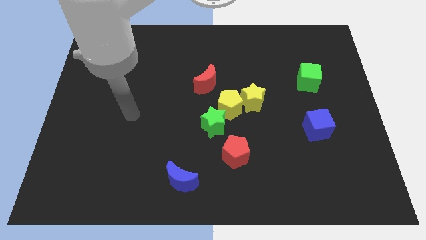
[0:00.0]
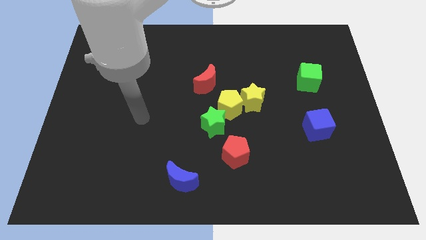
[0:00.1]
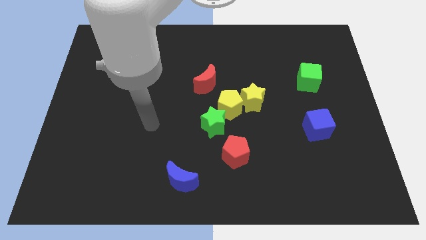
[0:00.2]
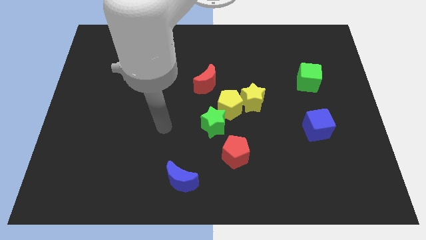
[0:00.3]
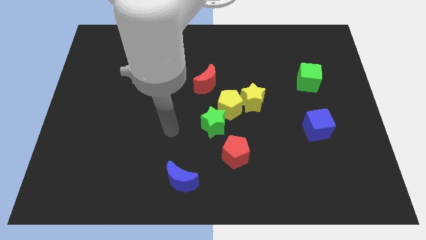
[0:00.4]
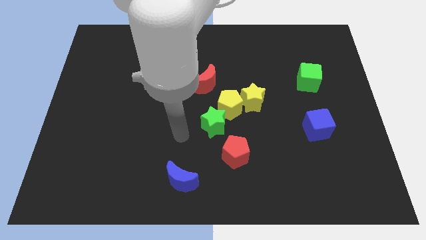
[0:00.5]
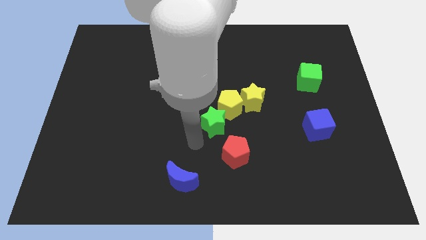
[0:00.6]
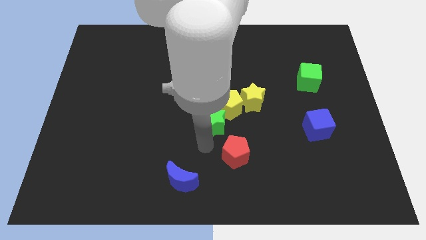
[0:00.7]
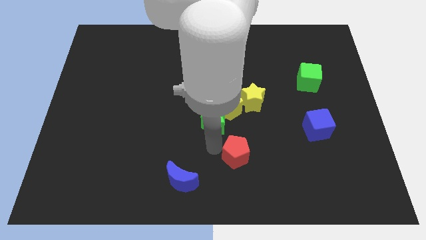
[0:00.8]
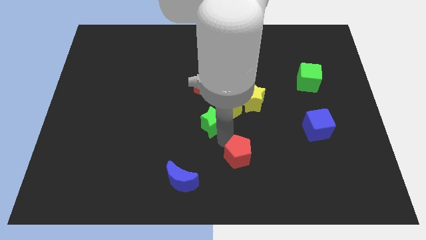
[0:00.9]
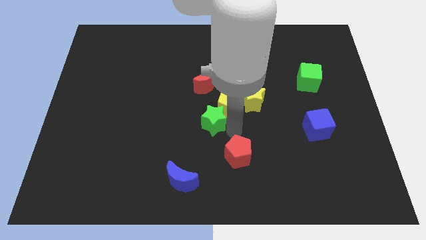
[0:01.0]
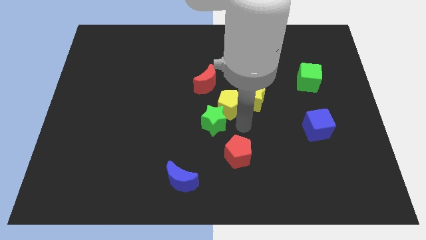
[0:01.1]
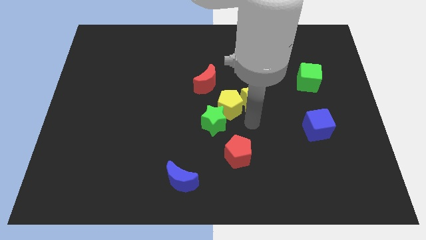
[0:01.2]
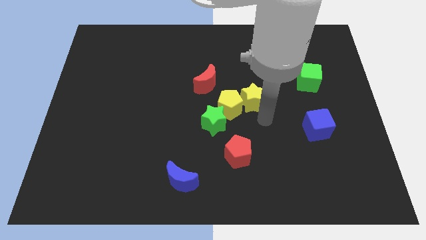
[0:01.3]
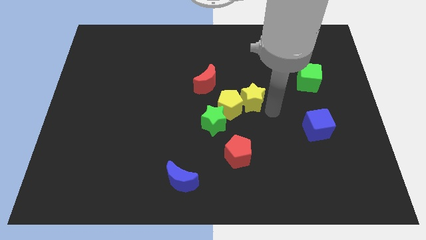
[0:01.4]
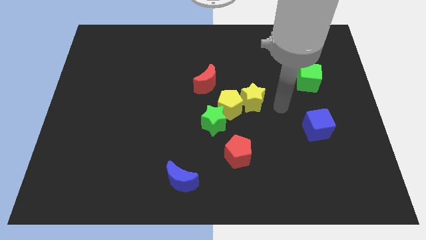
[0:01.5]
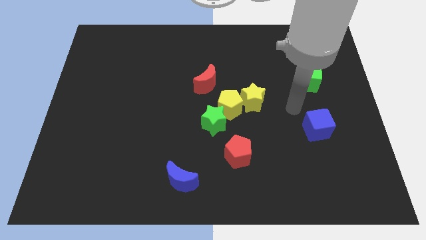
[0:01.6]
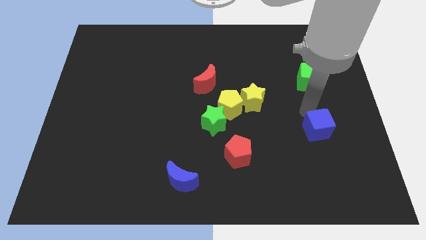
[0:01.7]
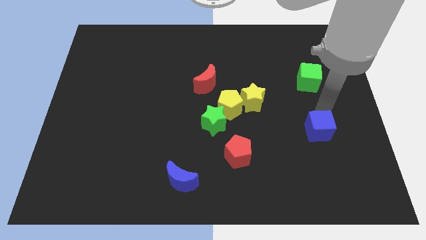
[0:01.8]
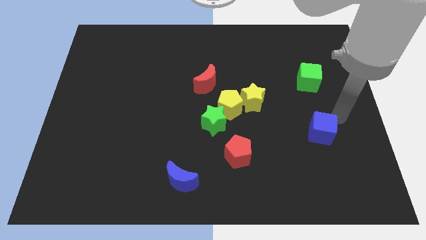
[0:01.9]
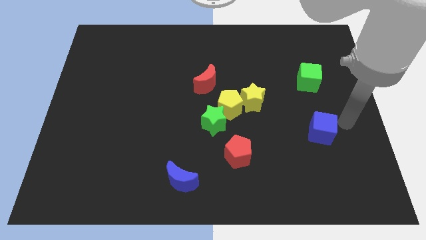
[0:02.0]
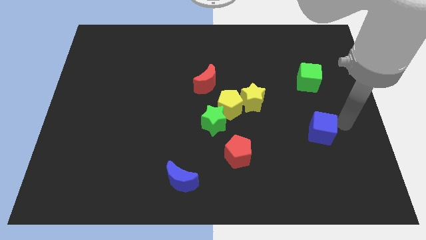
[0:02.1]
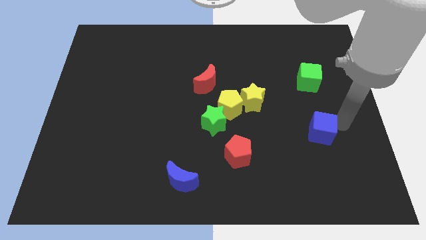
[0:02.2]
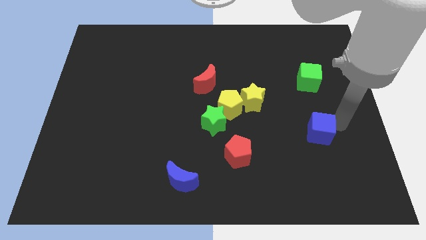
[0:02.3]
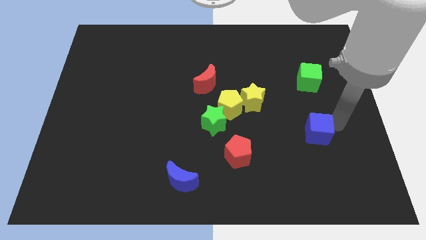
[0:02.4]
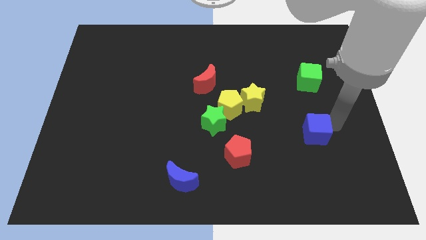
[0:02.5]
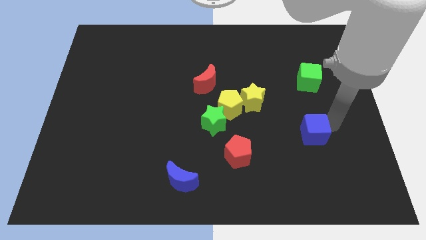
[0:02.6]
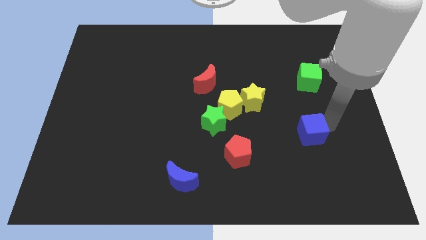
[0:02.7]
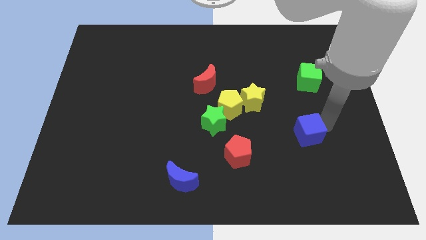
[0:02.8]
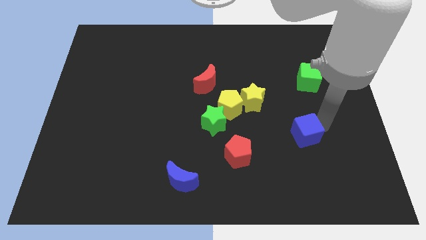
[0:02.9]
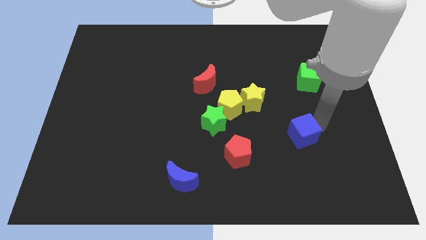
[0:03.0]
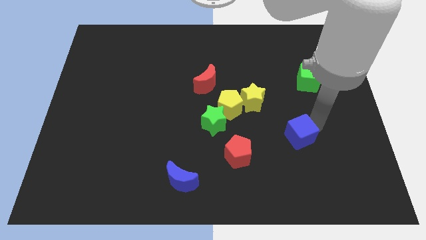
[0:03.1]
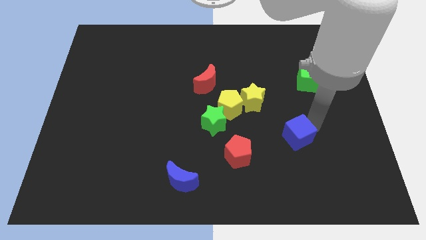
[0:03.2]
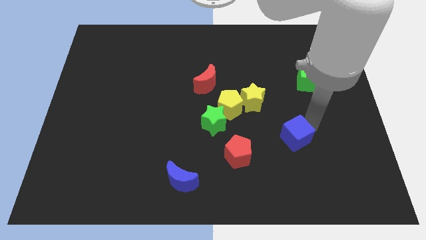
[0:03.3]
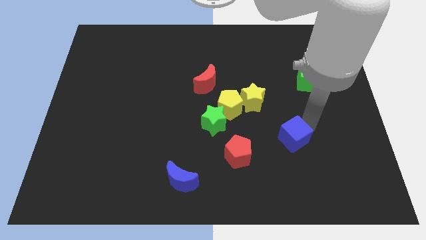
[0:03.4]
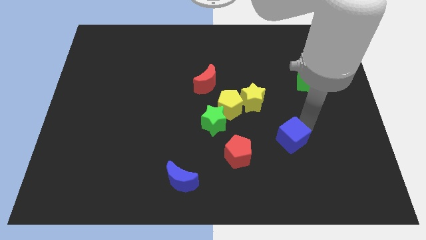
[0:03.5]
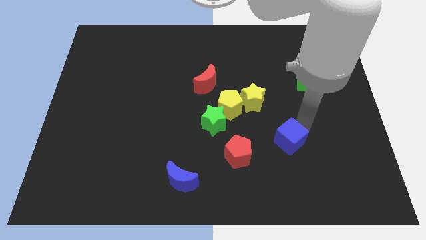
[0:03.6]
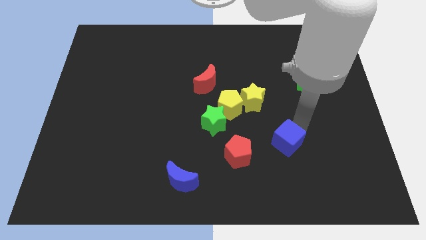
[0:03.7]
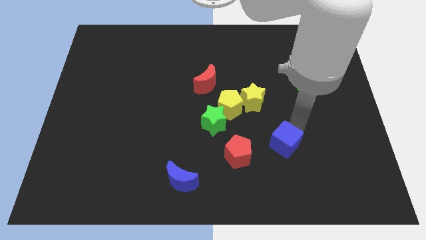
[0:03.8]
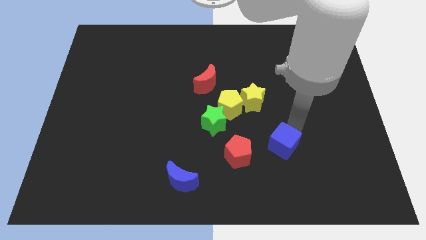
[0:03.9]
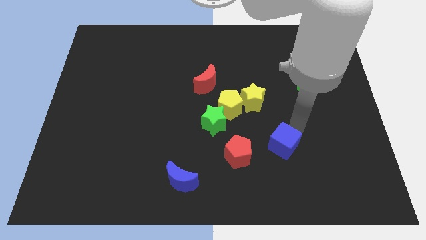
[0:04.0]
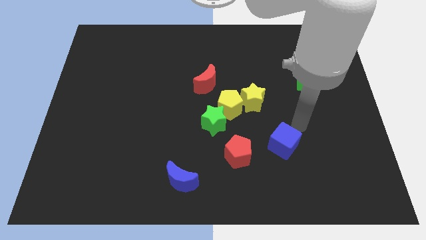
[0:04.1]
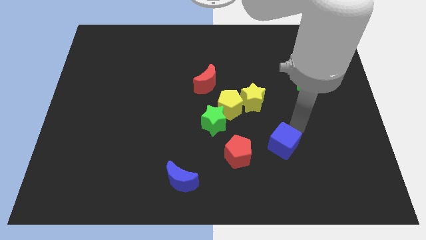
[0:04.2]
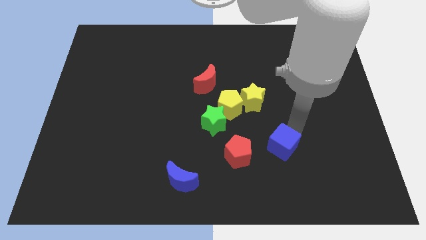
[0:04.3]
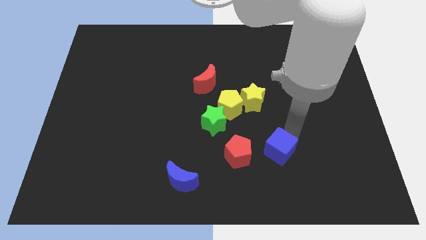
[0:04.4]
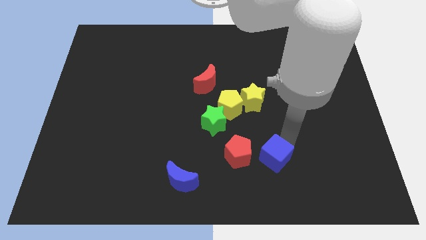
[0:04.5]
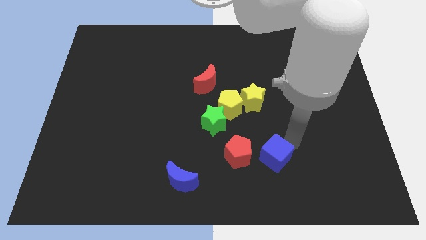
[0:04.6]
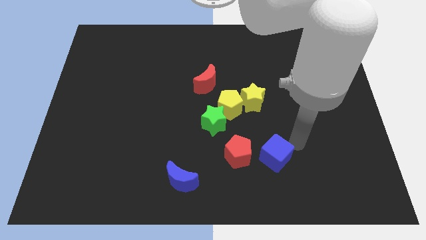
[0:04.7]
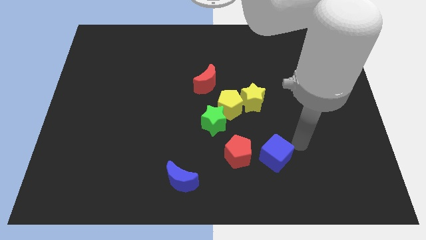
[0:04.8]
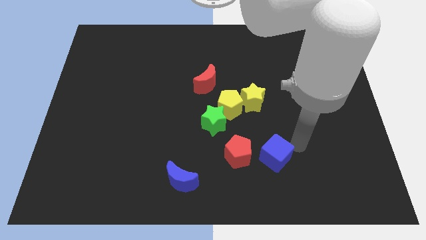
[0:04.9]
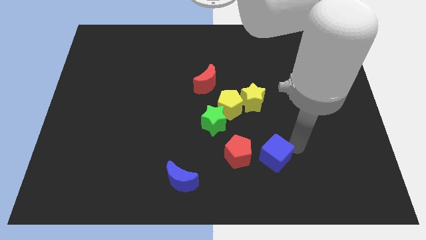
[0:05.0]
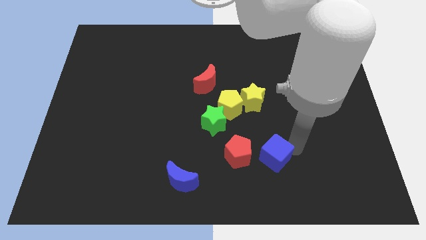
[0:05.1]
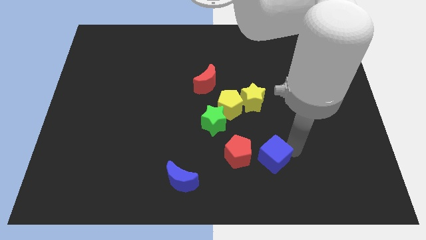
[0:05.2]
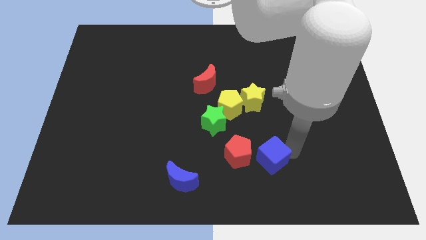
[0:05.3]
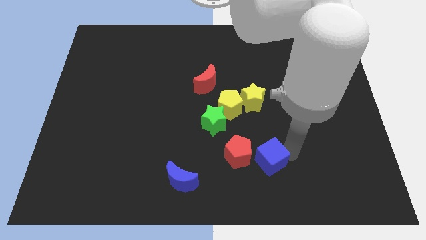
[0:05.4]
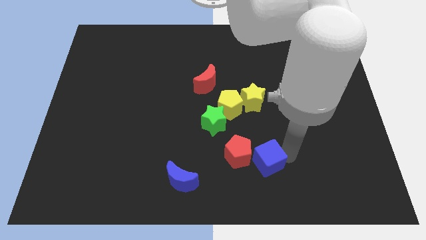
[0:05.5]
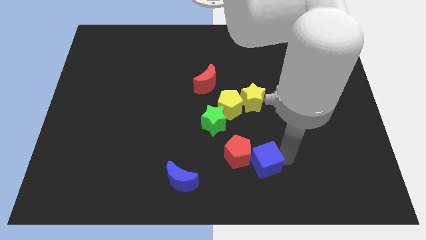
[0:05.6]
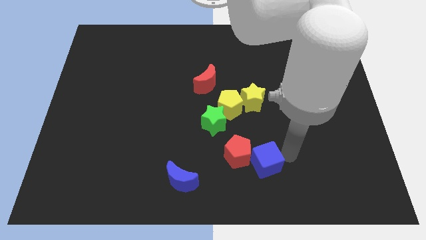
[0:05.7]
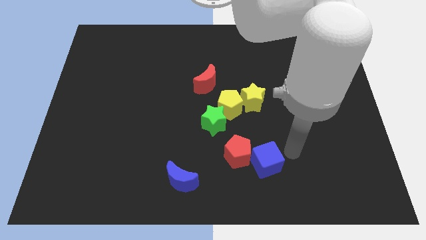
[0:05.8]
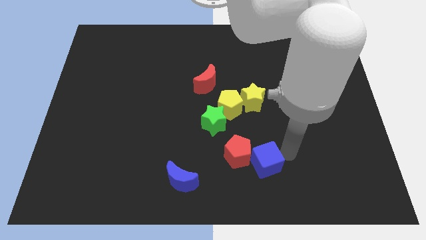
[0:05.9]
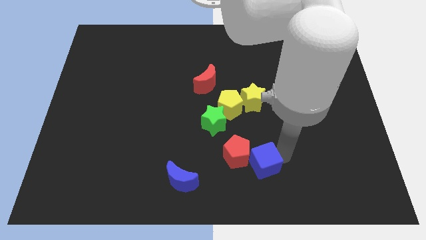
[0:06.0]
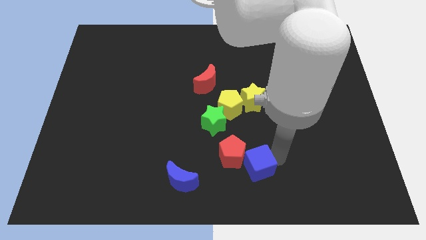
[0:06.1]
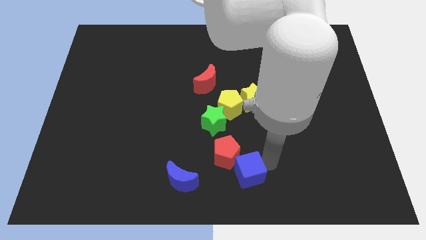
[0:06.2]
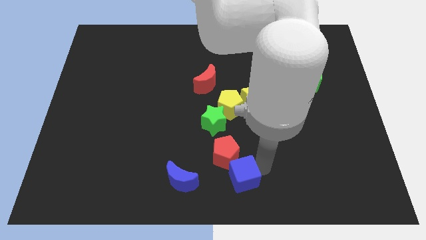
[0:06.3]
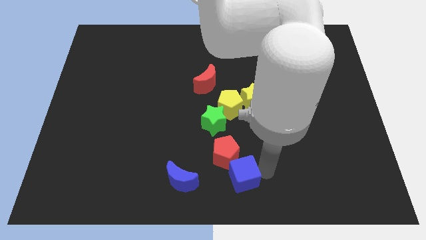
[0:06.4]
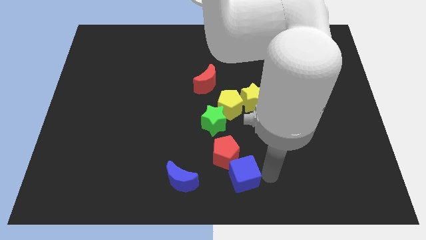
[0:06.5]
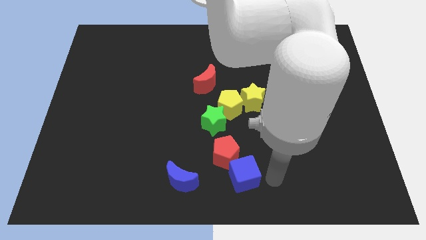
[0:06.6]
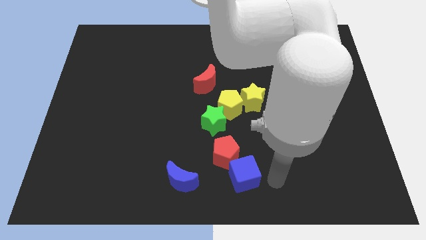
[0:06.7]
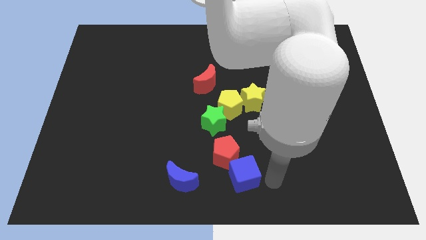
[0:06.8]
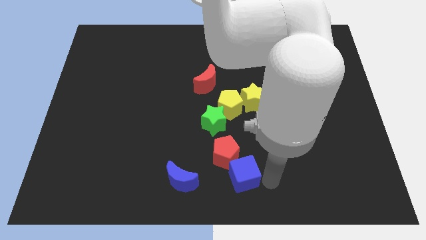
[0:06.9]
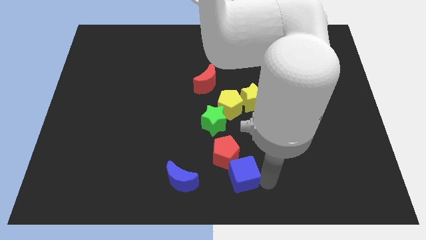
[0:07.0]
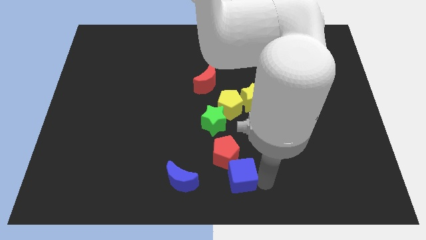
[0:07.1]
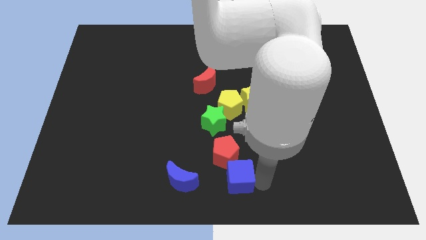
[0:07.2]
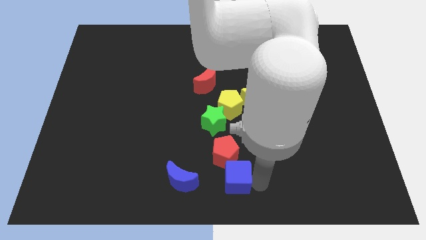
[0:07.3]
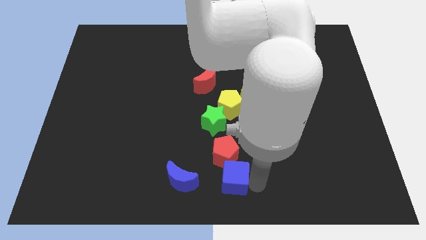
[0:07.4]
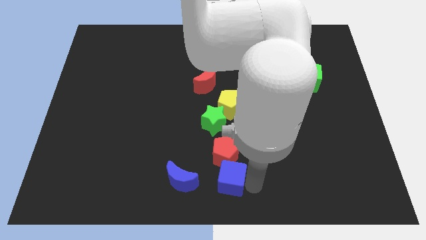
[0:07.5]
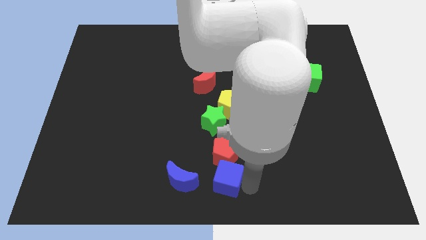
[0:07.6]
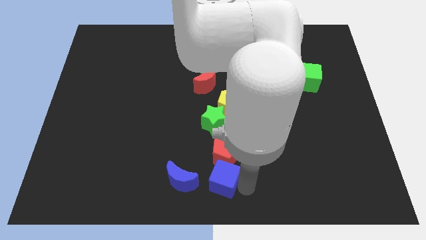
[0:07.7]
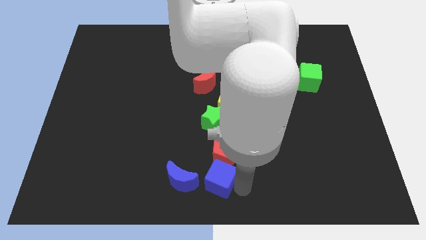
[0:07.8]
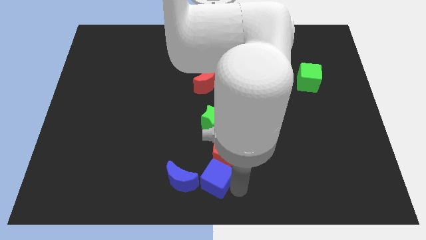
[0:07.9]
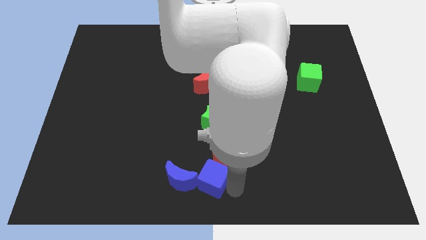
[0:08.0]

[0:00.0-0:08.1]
slide the blue cube to the top right side of the blue moon
